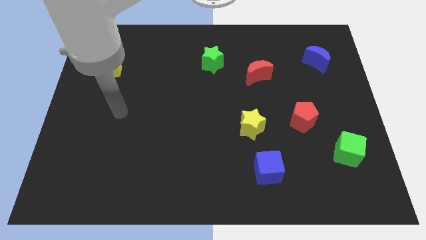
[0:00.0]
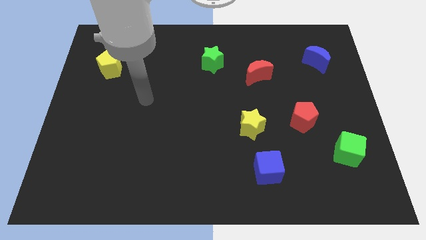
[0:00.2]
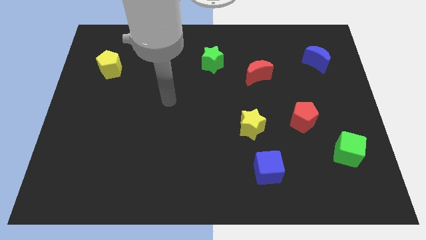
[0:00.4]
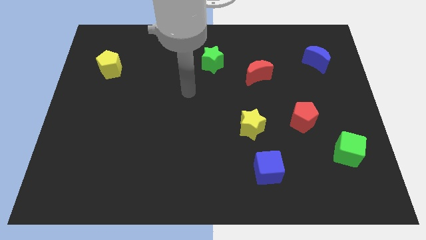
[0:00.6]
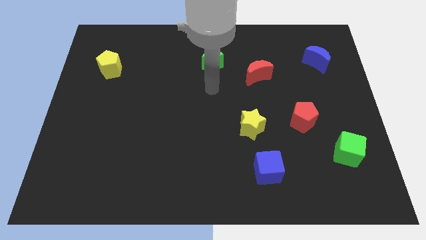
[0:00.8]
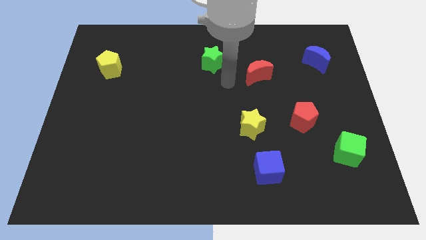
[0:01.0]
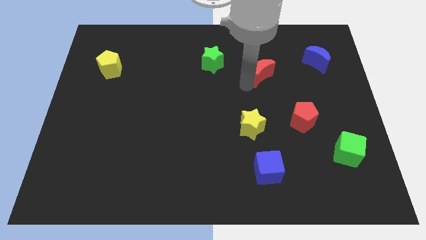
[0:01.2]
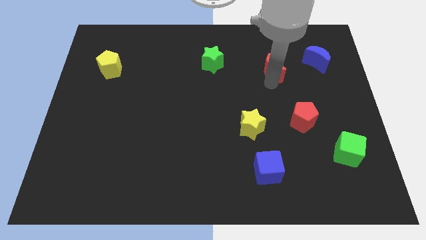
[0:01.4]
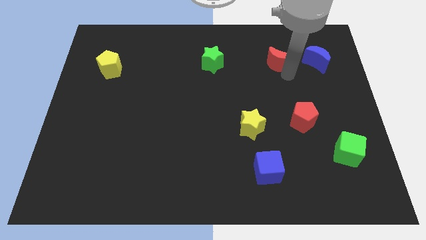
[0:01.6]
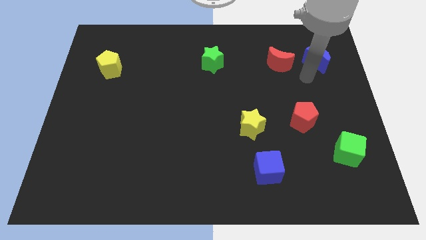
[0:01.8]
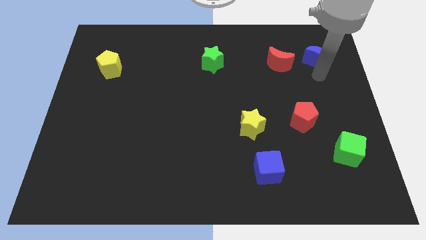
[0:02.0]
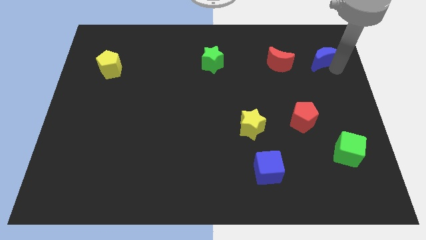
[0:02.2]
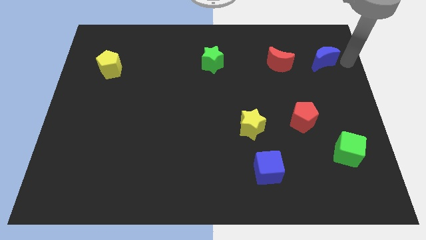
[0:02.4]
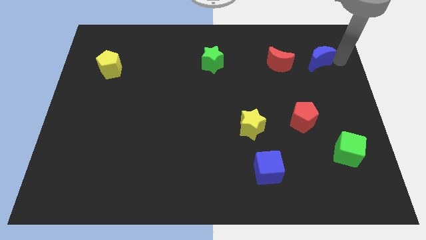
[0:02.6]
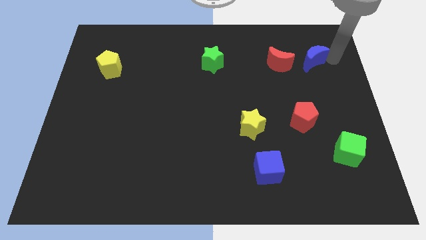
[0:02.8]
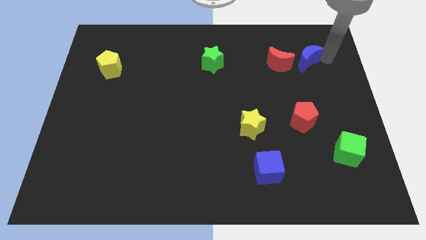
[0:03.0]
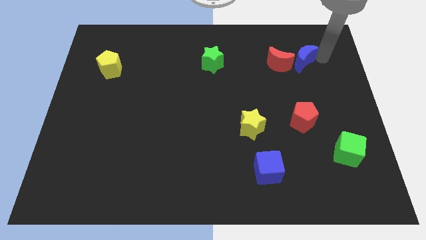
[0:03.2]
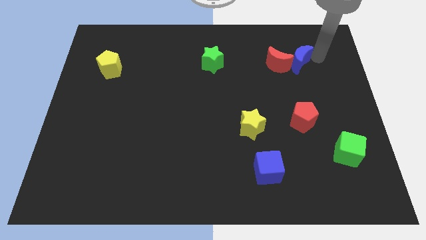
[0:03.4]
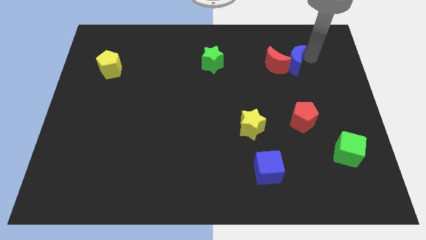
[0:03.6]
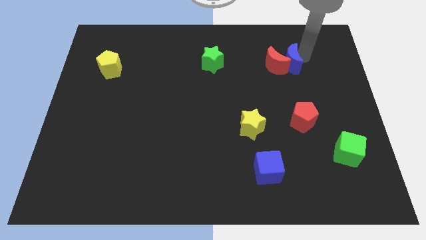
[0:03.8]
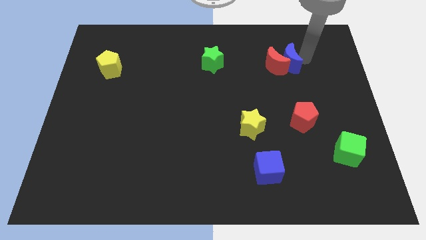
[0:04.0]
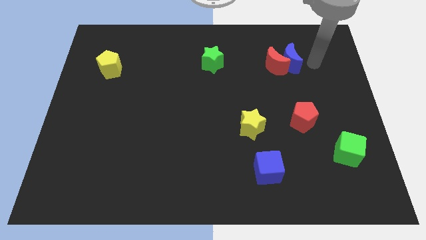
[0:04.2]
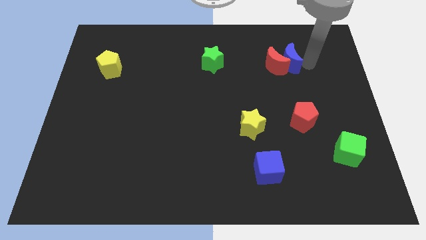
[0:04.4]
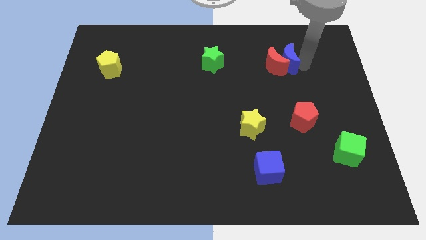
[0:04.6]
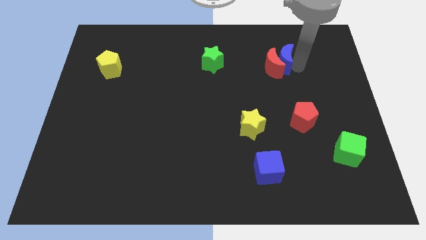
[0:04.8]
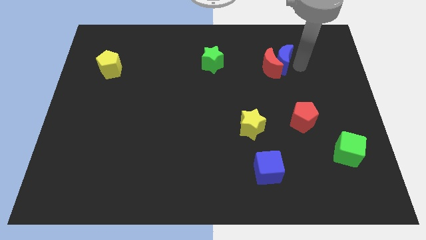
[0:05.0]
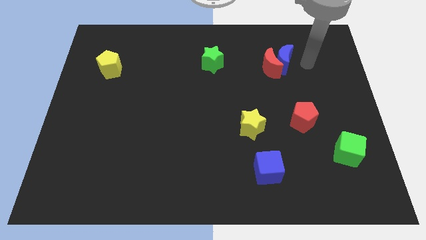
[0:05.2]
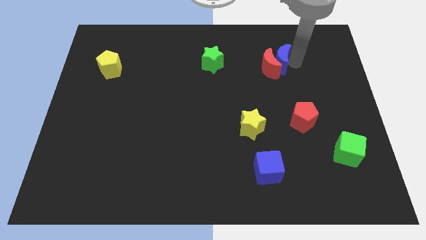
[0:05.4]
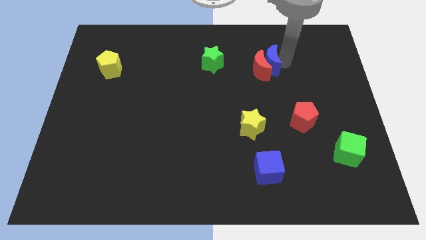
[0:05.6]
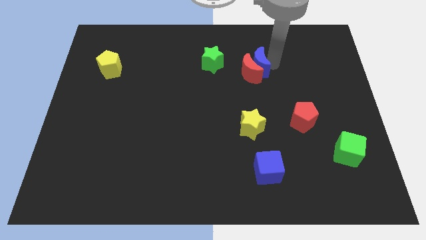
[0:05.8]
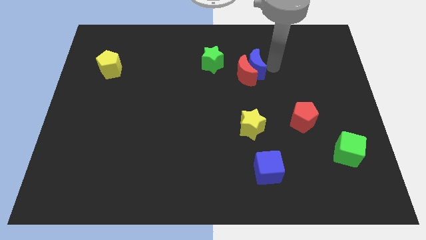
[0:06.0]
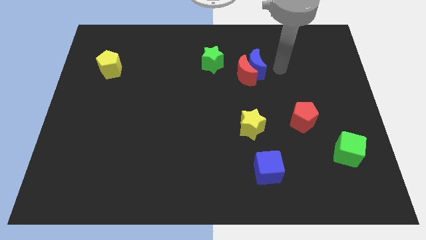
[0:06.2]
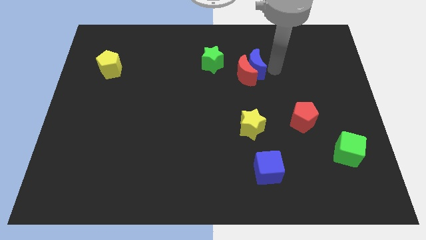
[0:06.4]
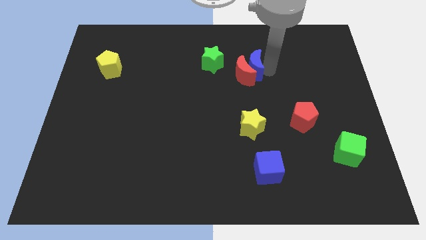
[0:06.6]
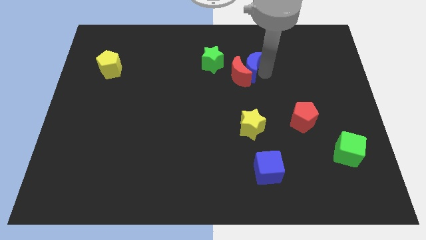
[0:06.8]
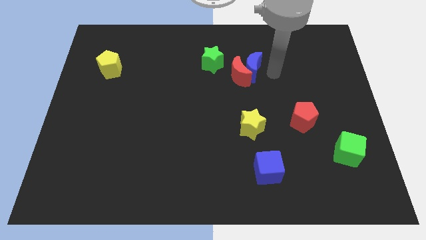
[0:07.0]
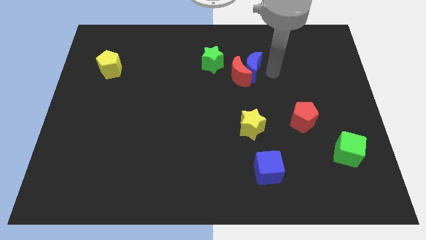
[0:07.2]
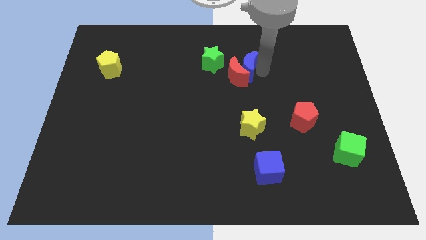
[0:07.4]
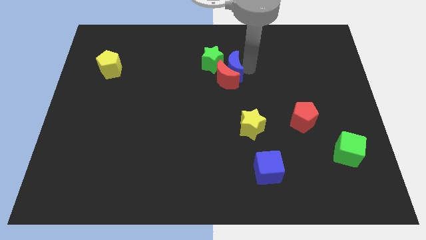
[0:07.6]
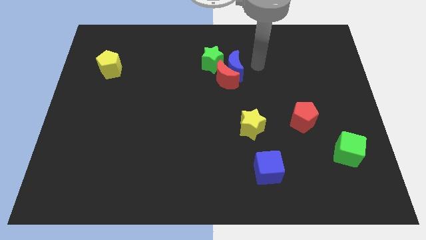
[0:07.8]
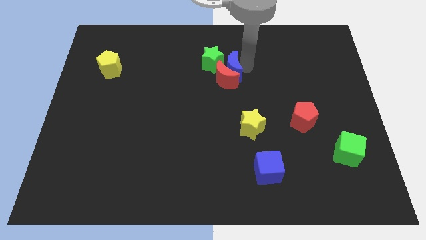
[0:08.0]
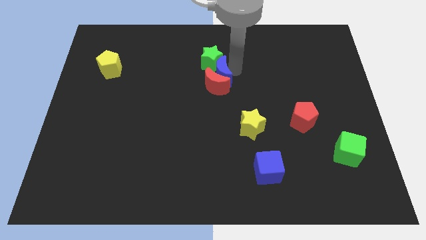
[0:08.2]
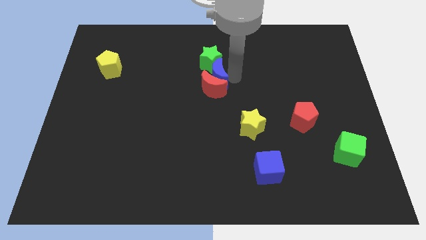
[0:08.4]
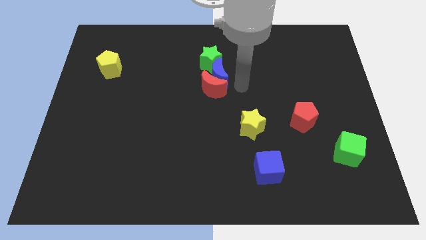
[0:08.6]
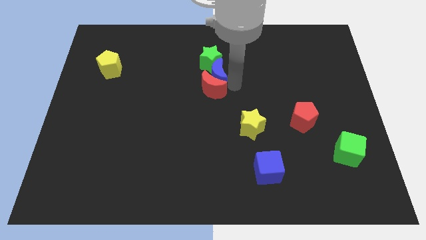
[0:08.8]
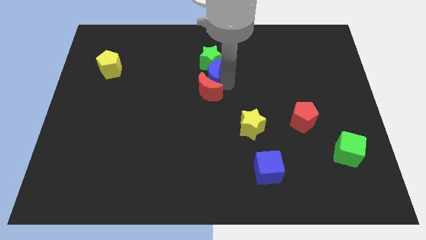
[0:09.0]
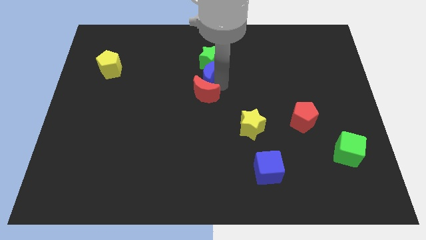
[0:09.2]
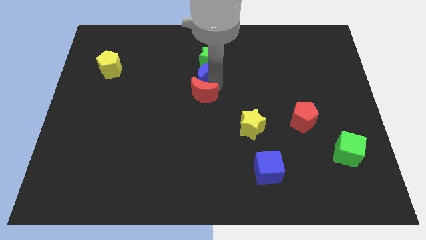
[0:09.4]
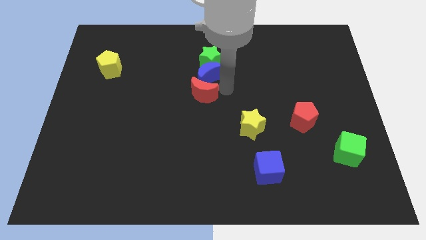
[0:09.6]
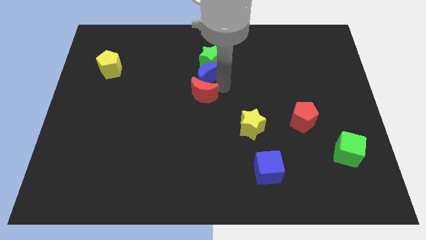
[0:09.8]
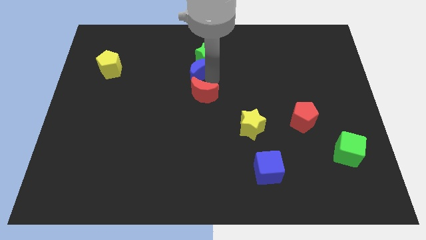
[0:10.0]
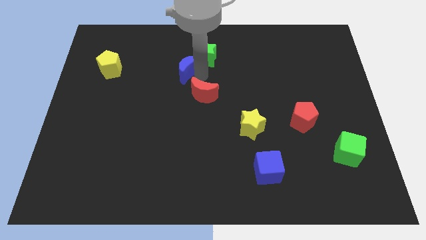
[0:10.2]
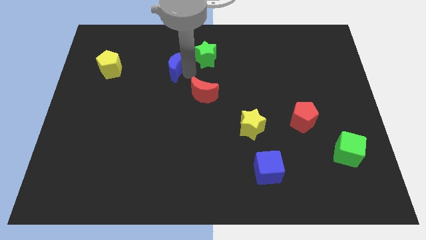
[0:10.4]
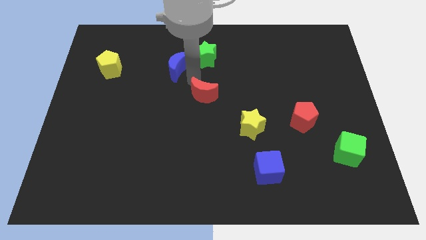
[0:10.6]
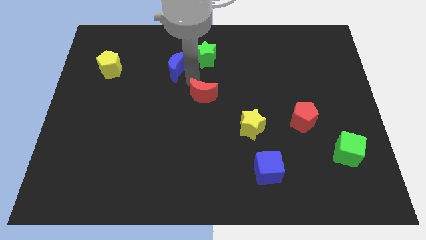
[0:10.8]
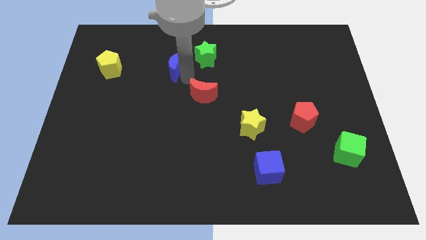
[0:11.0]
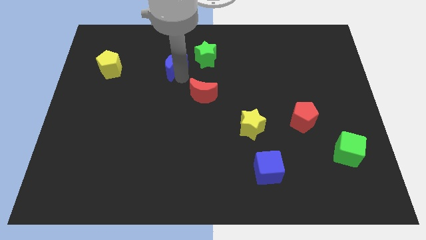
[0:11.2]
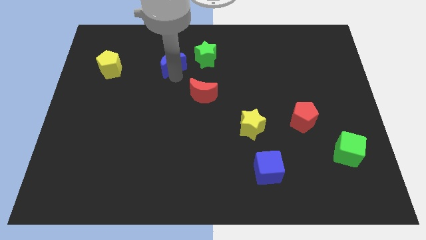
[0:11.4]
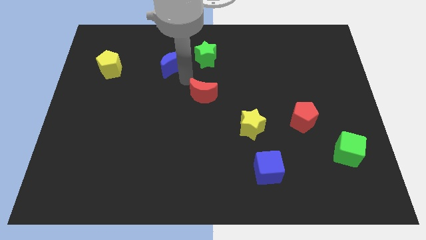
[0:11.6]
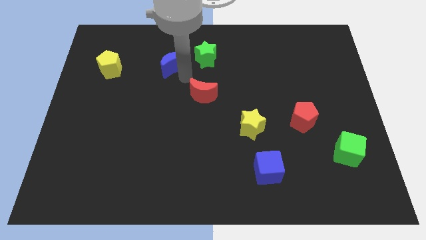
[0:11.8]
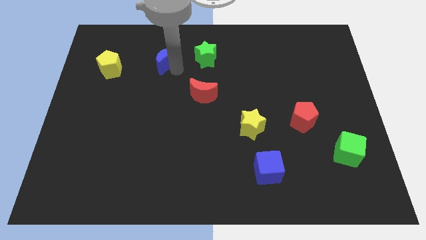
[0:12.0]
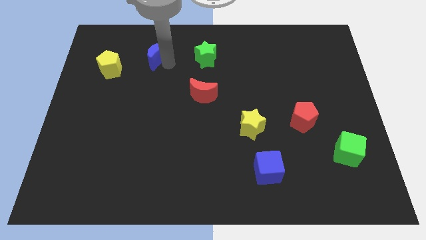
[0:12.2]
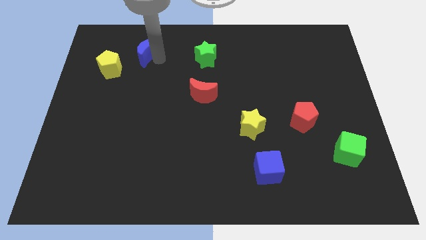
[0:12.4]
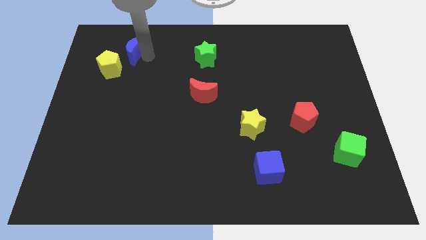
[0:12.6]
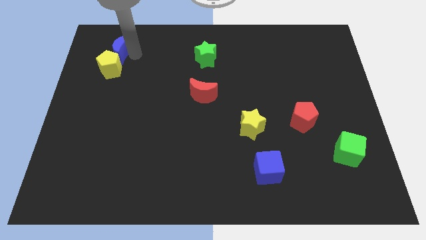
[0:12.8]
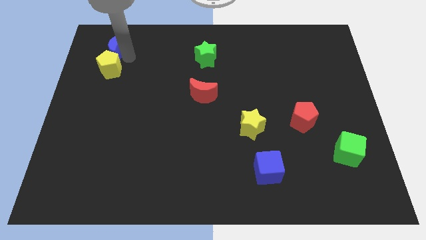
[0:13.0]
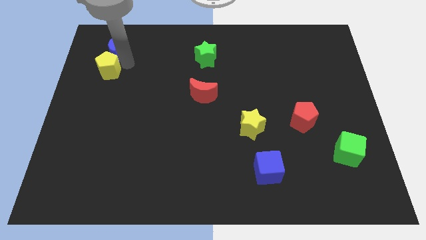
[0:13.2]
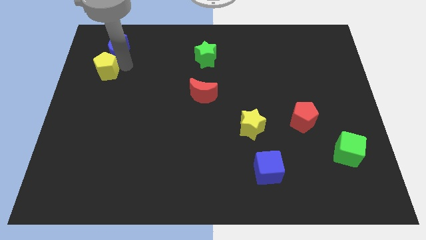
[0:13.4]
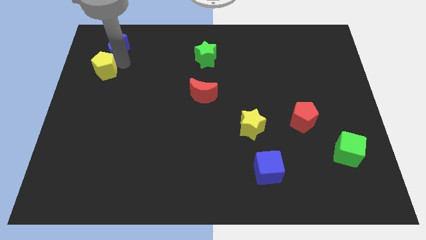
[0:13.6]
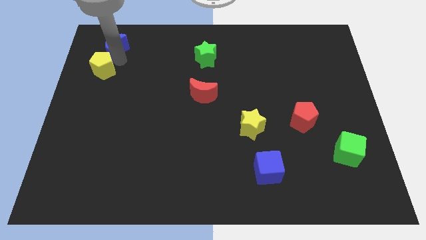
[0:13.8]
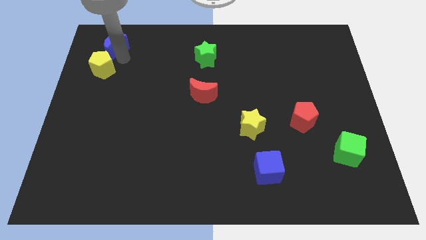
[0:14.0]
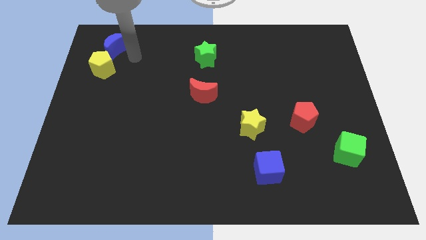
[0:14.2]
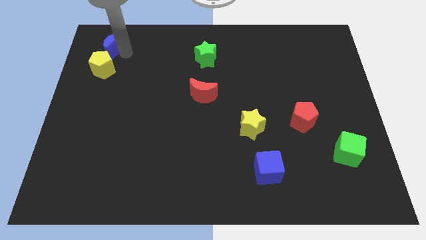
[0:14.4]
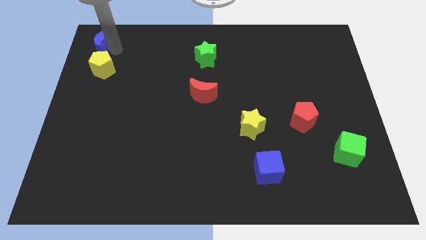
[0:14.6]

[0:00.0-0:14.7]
put the blue moon to the top left of the board
